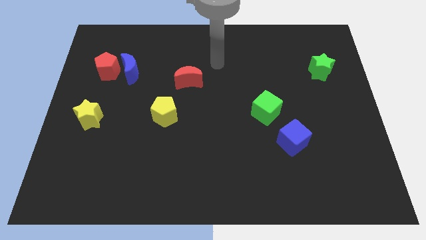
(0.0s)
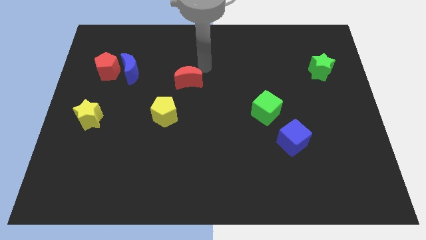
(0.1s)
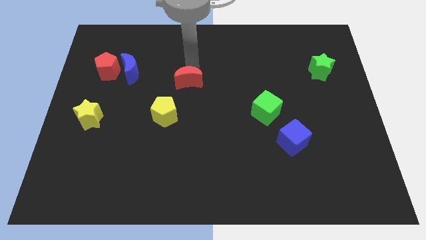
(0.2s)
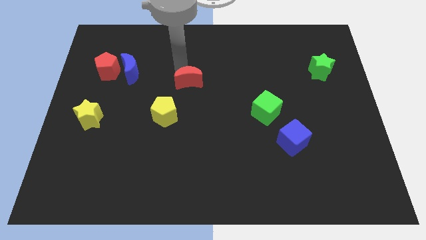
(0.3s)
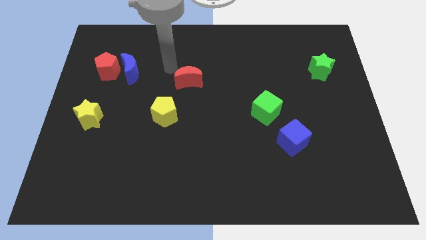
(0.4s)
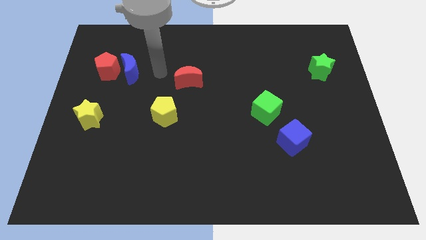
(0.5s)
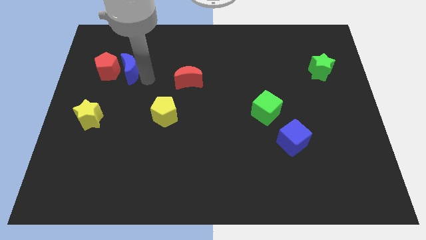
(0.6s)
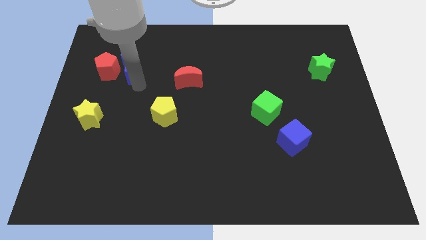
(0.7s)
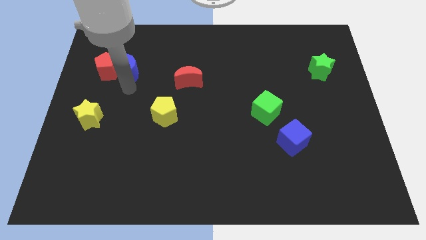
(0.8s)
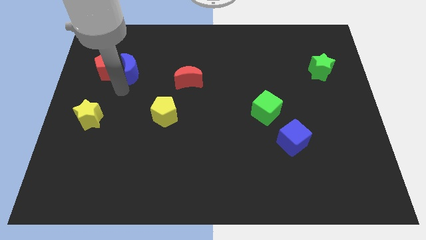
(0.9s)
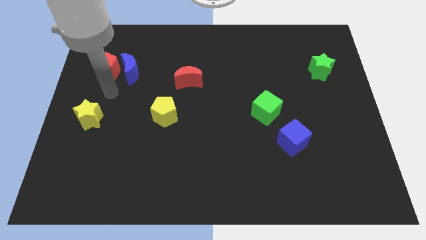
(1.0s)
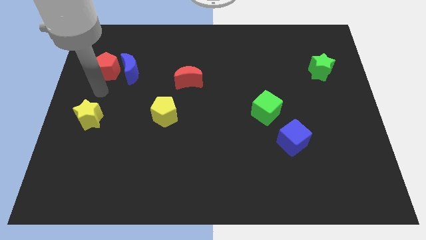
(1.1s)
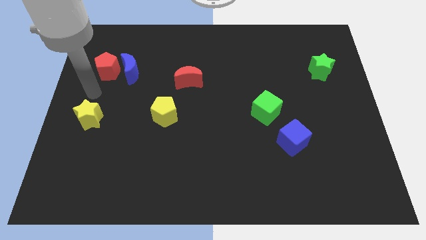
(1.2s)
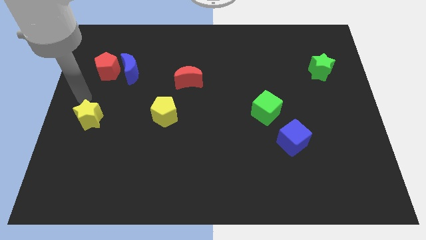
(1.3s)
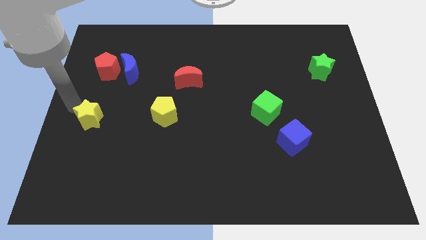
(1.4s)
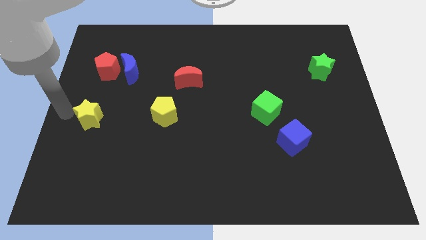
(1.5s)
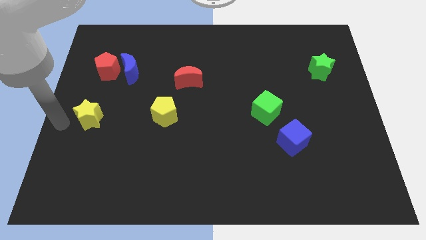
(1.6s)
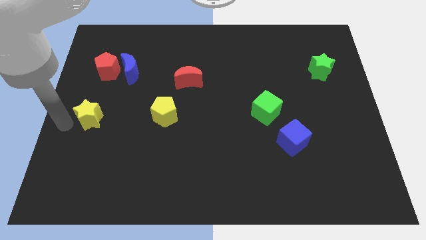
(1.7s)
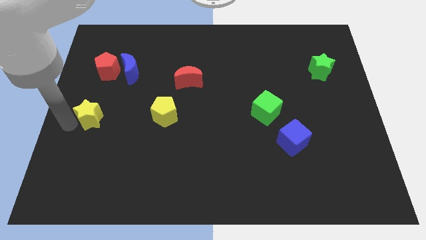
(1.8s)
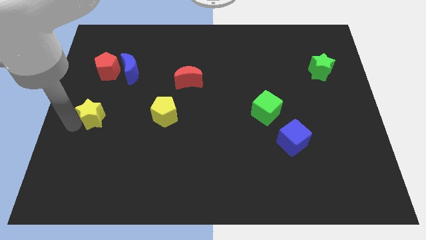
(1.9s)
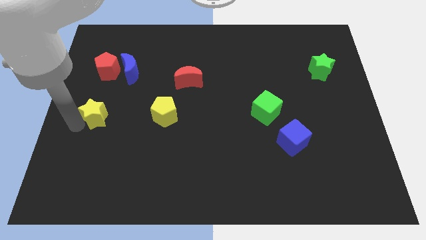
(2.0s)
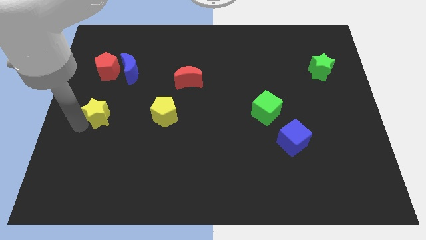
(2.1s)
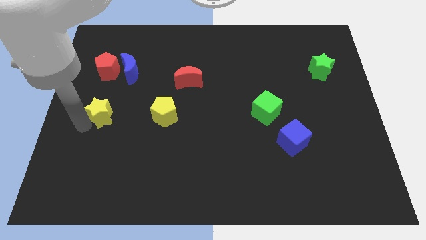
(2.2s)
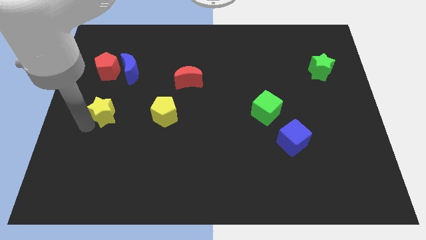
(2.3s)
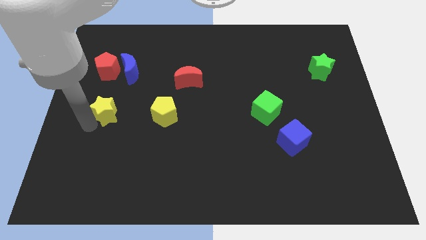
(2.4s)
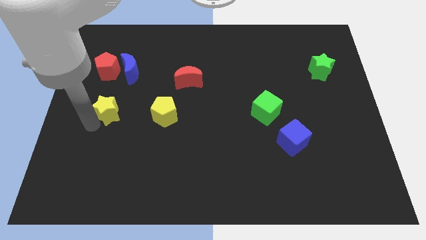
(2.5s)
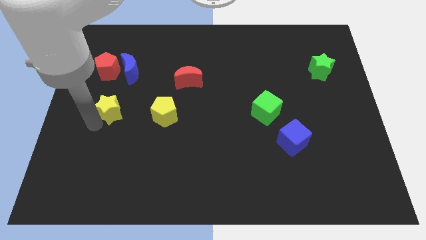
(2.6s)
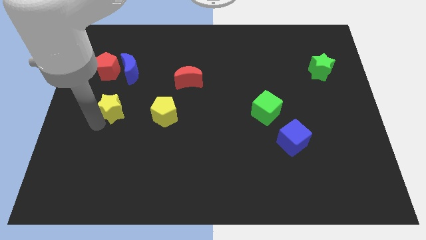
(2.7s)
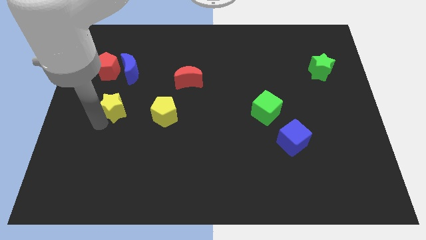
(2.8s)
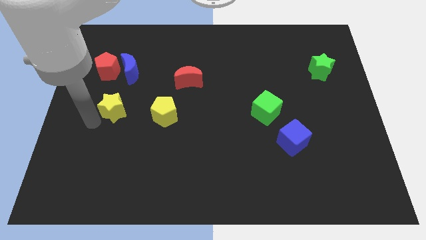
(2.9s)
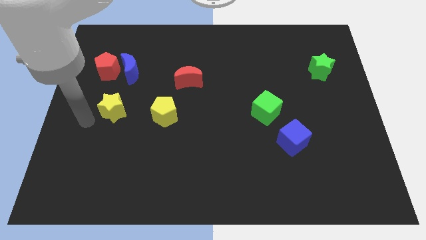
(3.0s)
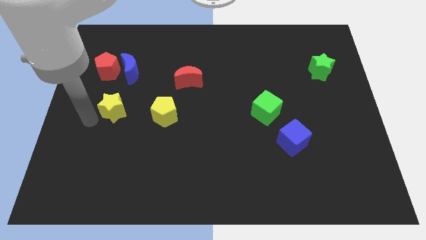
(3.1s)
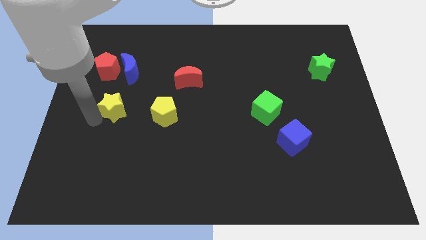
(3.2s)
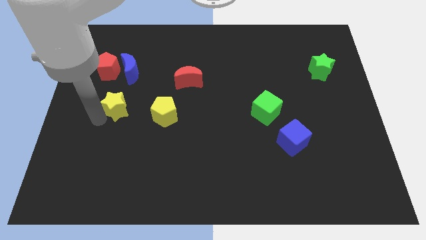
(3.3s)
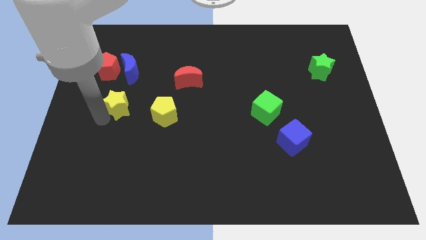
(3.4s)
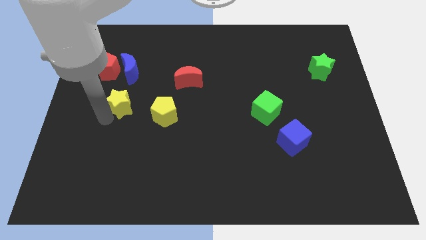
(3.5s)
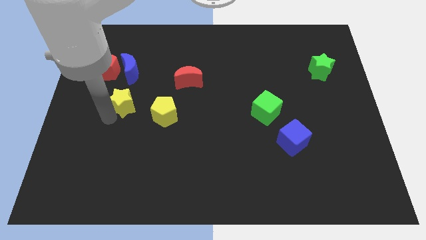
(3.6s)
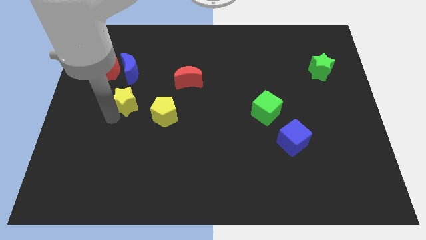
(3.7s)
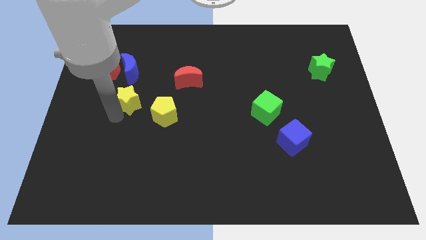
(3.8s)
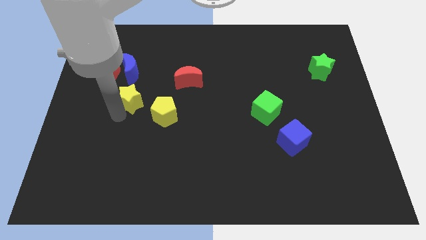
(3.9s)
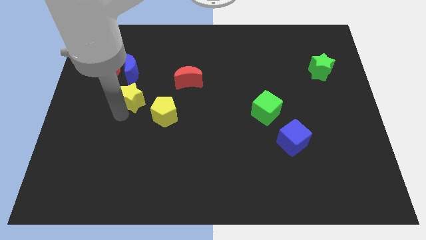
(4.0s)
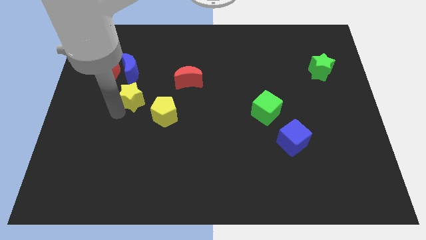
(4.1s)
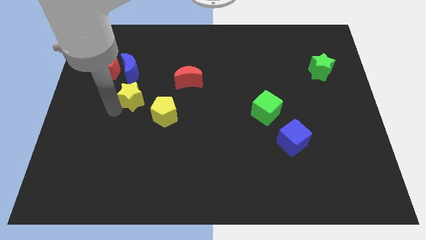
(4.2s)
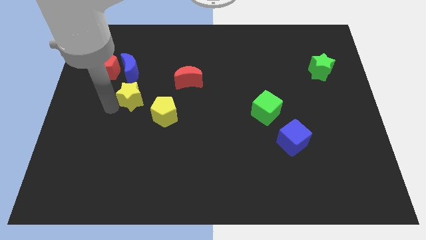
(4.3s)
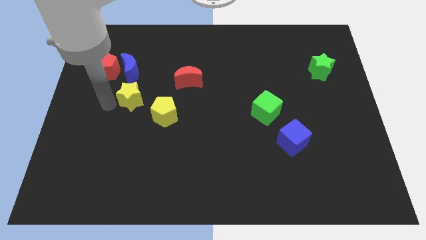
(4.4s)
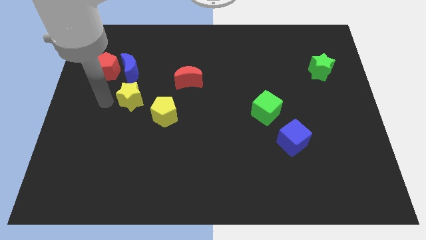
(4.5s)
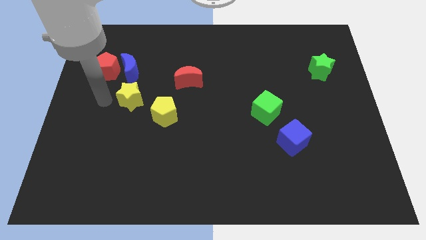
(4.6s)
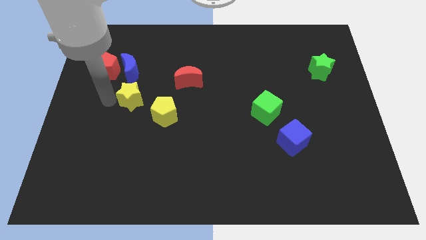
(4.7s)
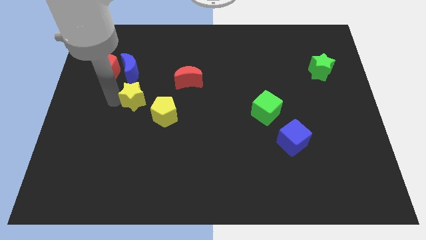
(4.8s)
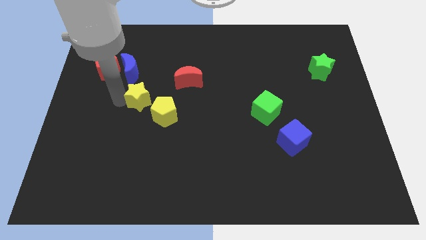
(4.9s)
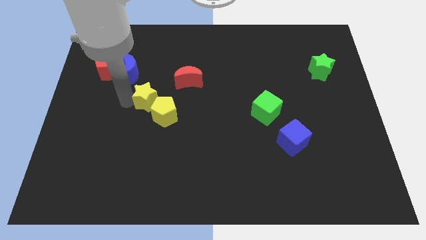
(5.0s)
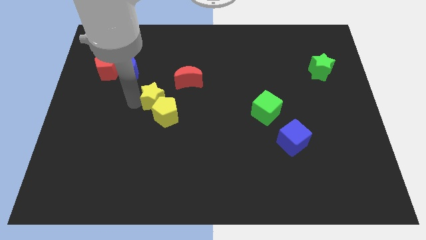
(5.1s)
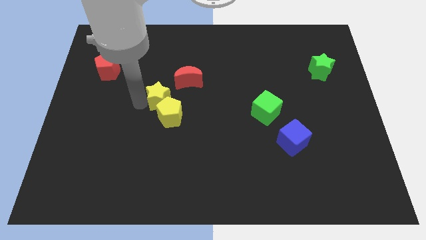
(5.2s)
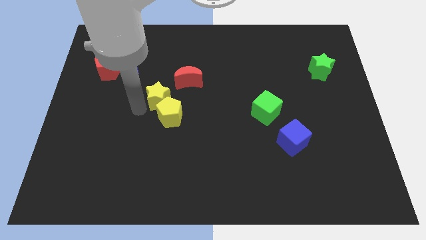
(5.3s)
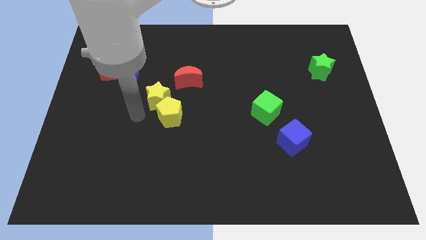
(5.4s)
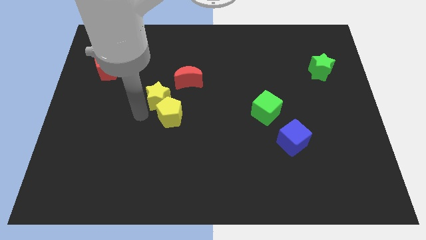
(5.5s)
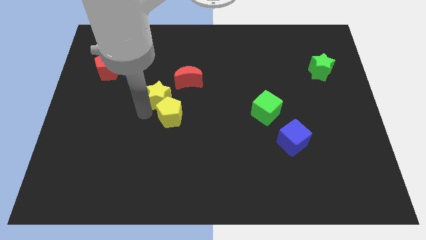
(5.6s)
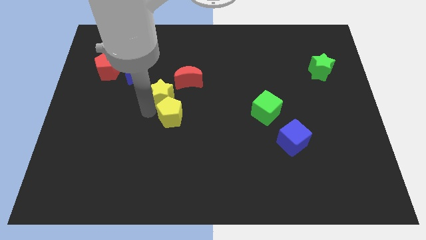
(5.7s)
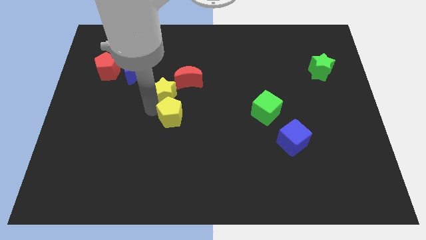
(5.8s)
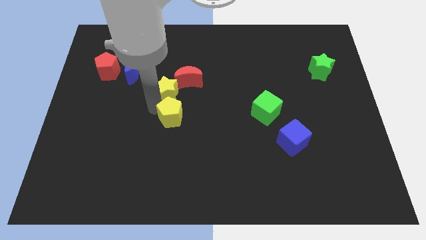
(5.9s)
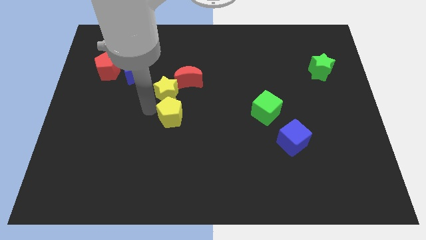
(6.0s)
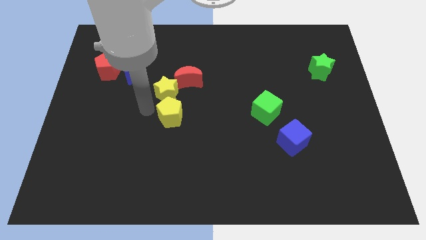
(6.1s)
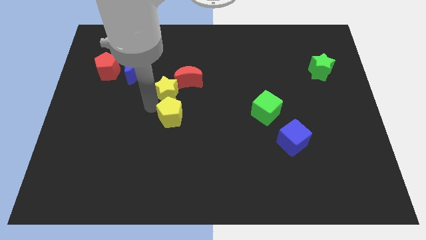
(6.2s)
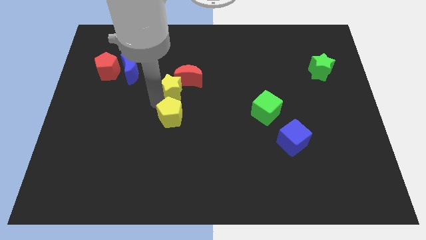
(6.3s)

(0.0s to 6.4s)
move the yellow star next to the red moon

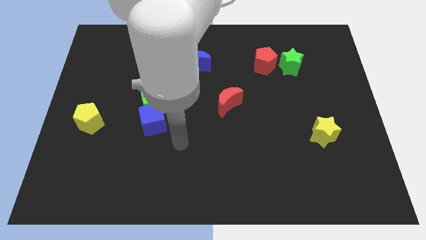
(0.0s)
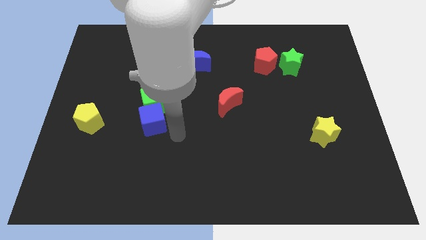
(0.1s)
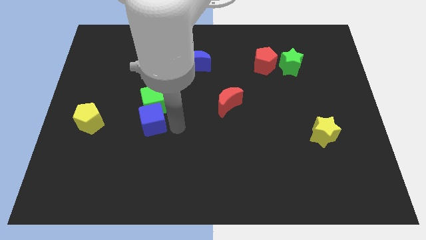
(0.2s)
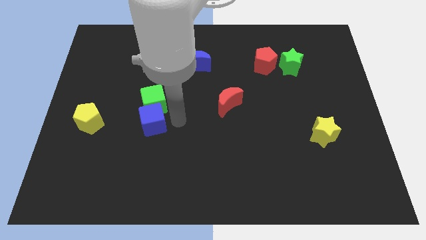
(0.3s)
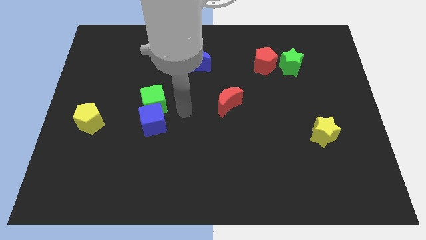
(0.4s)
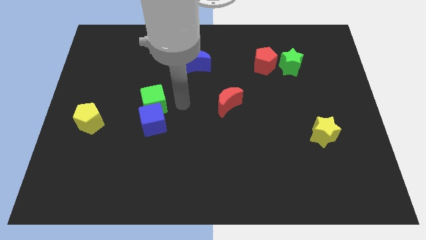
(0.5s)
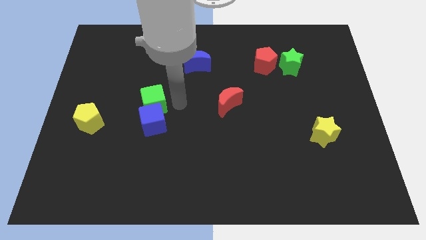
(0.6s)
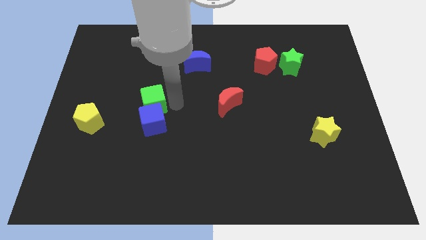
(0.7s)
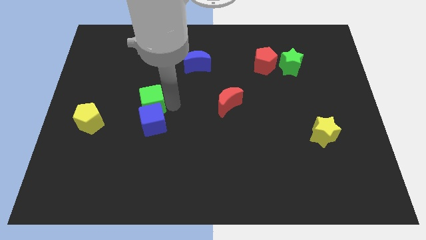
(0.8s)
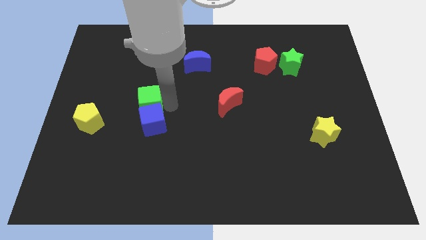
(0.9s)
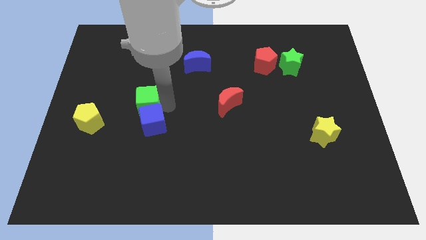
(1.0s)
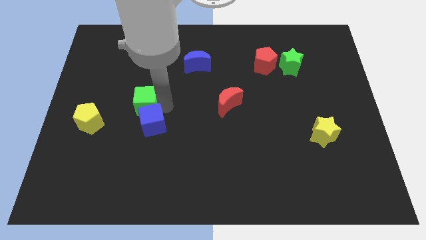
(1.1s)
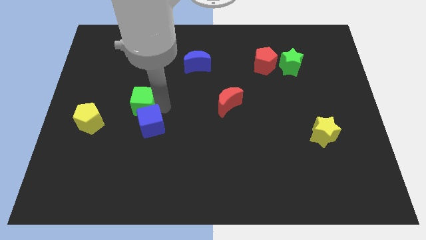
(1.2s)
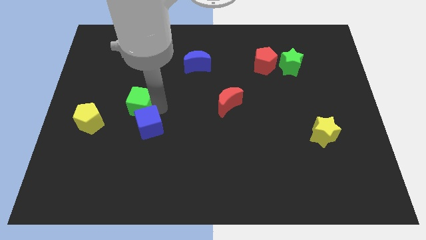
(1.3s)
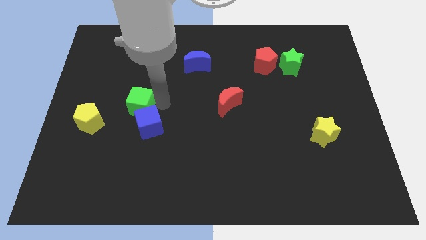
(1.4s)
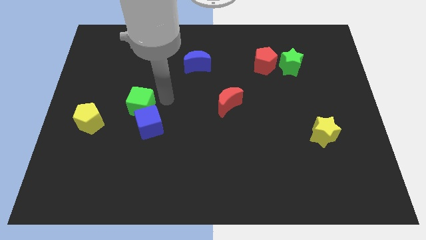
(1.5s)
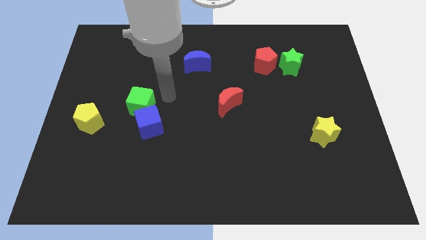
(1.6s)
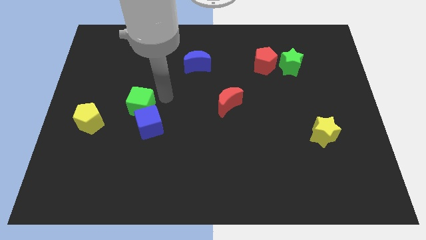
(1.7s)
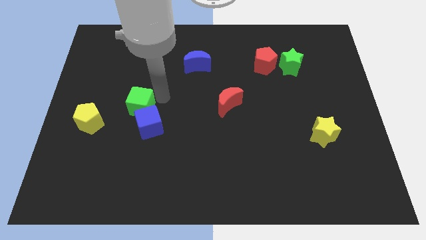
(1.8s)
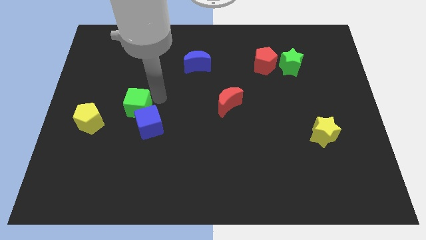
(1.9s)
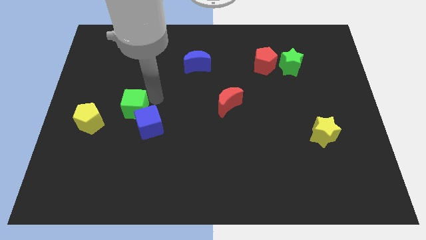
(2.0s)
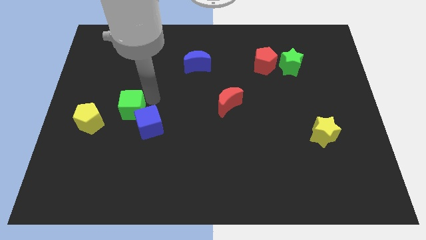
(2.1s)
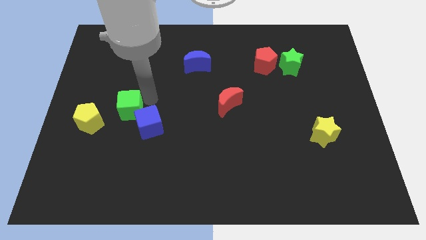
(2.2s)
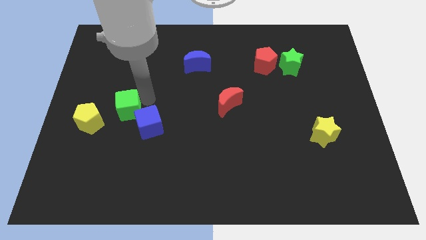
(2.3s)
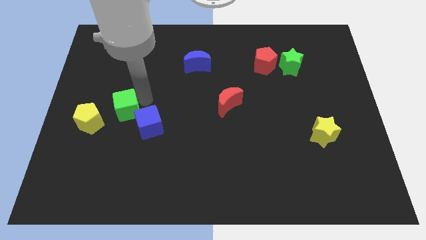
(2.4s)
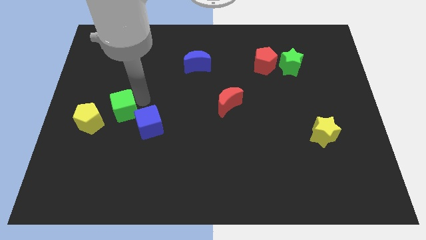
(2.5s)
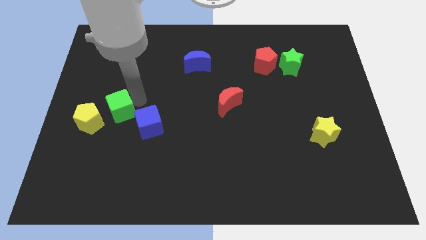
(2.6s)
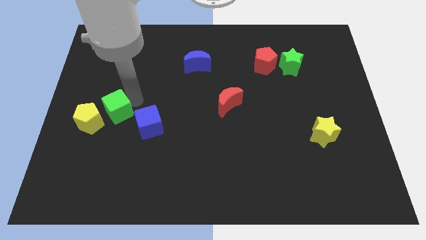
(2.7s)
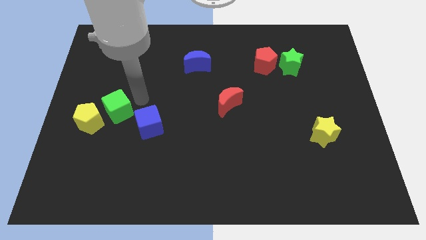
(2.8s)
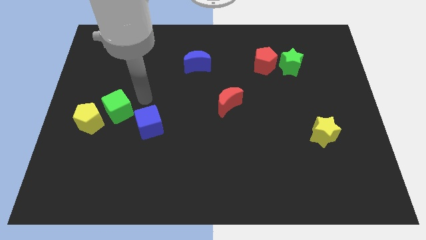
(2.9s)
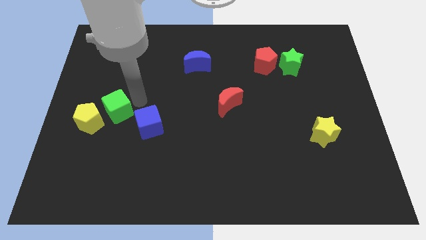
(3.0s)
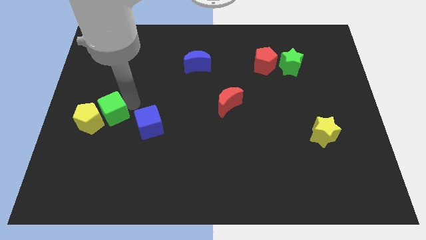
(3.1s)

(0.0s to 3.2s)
move the green cube next to the yellow pentagon
